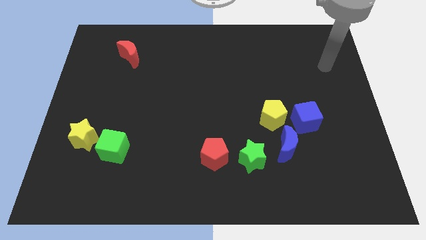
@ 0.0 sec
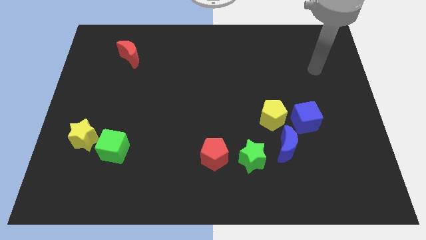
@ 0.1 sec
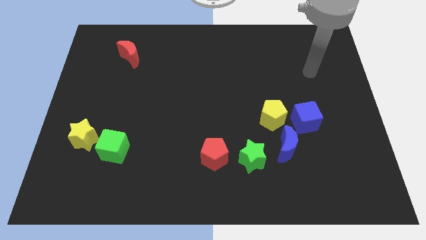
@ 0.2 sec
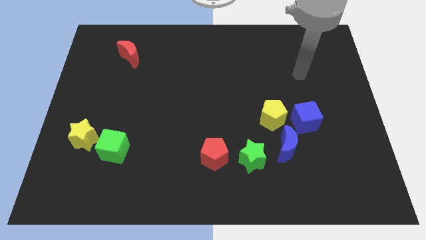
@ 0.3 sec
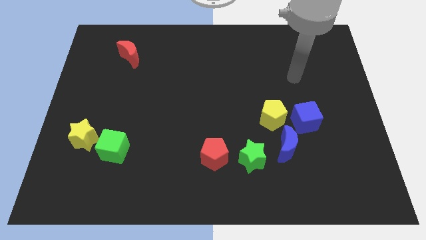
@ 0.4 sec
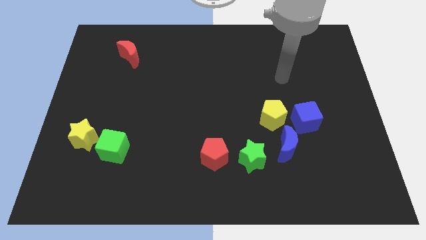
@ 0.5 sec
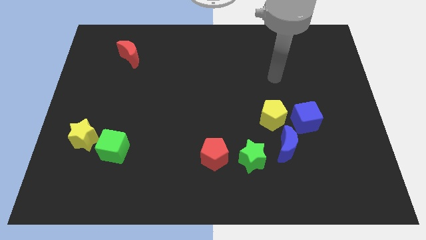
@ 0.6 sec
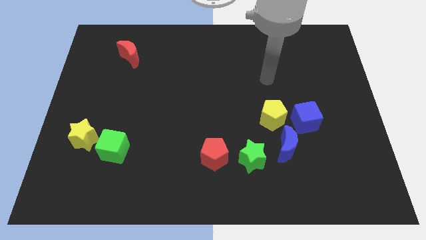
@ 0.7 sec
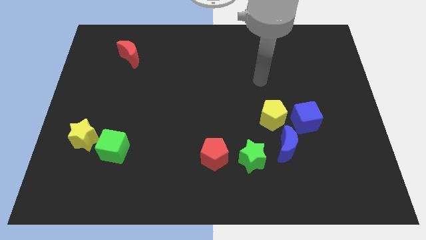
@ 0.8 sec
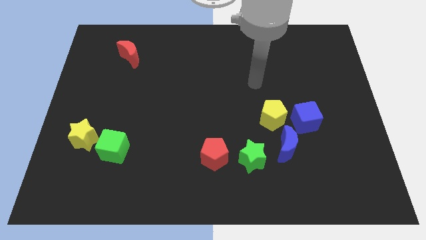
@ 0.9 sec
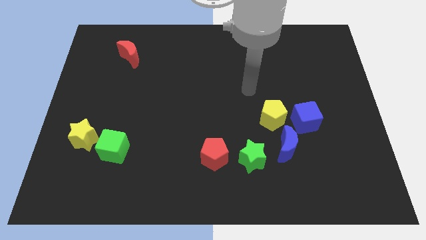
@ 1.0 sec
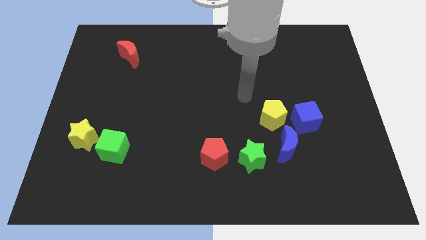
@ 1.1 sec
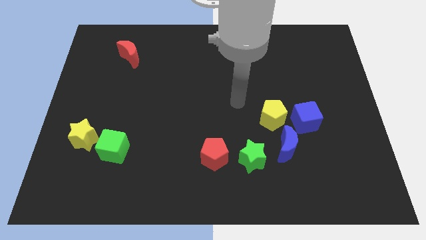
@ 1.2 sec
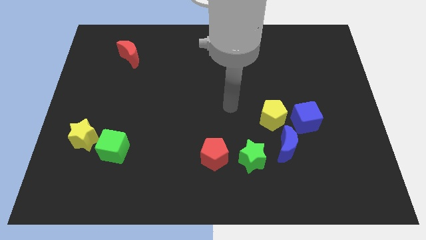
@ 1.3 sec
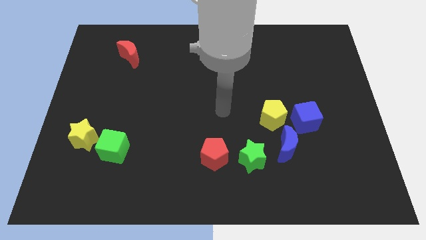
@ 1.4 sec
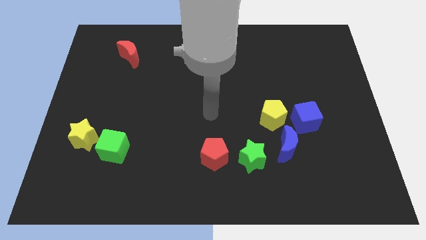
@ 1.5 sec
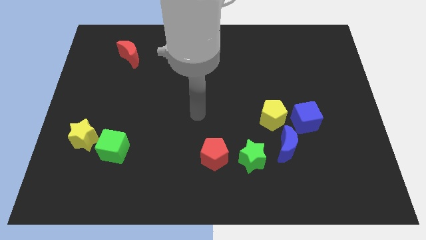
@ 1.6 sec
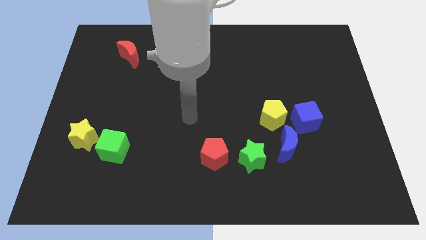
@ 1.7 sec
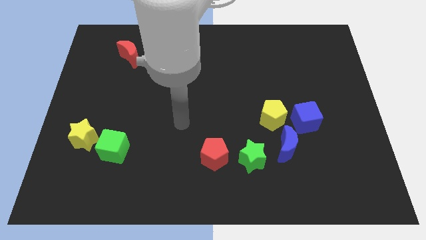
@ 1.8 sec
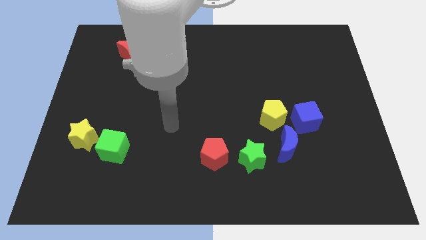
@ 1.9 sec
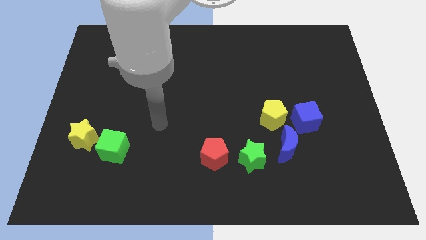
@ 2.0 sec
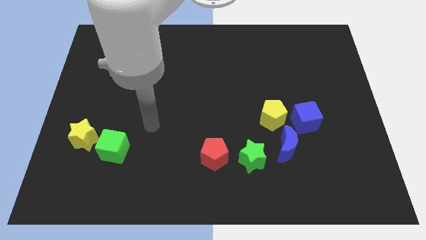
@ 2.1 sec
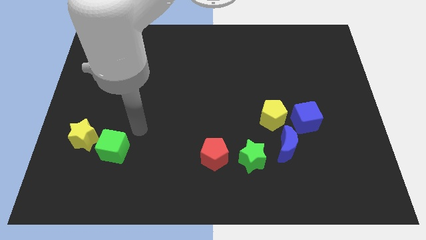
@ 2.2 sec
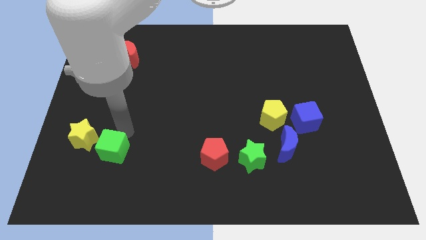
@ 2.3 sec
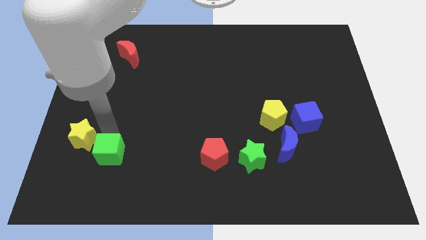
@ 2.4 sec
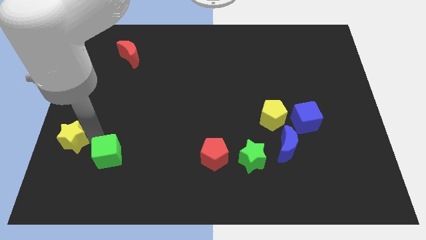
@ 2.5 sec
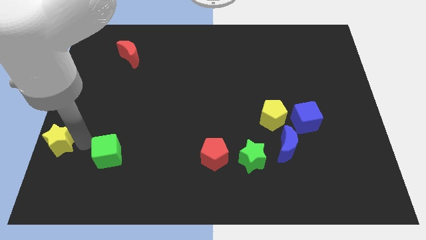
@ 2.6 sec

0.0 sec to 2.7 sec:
move the green cube away from the yellow star

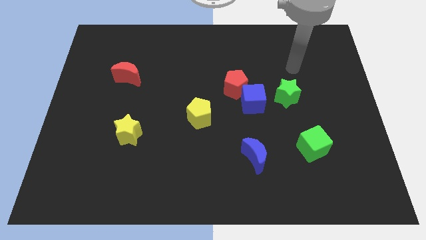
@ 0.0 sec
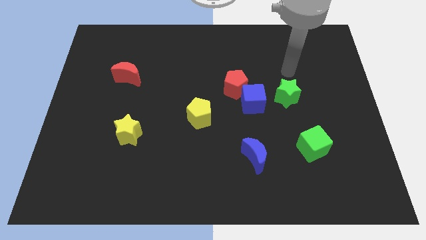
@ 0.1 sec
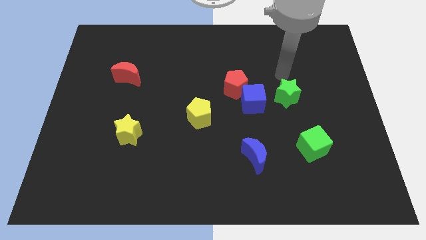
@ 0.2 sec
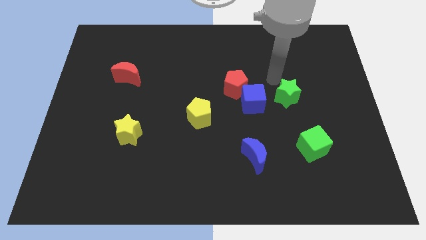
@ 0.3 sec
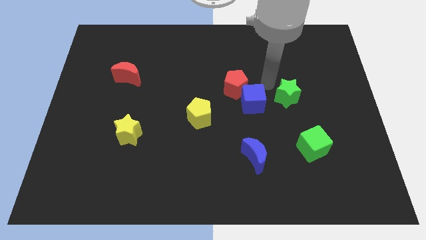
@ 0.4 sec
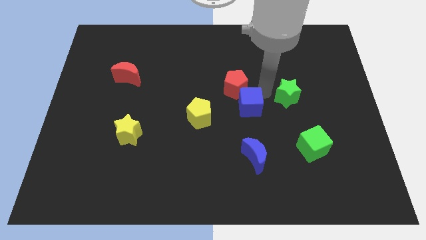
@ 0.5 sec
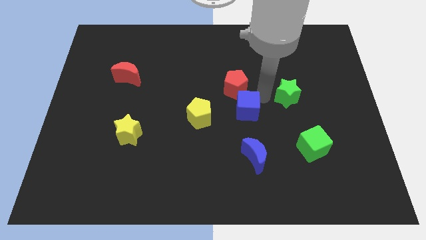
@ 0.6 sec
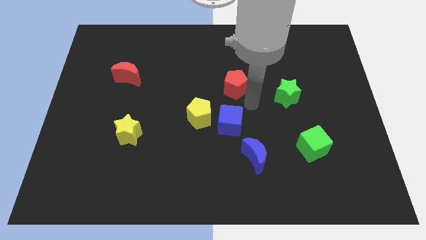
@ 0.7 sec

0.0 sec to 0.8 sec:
pull the red pentagon apart from the blue cube

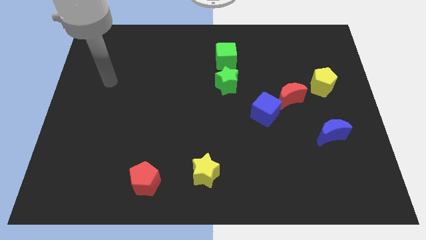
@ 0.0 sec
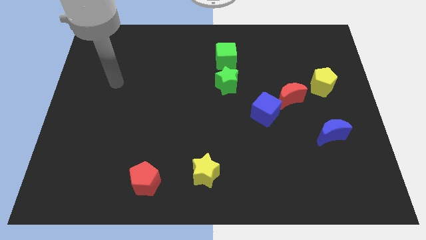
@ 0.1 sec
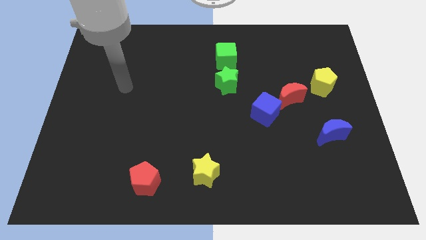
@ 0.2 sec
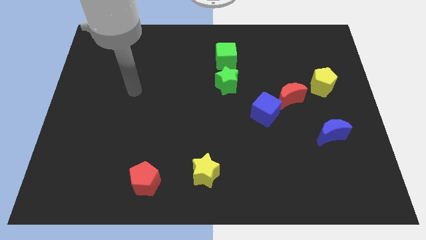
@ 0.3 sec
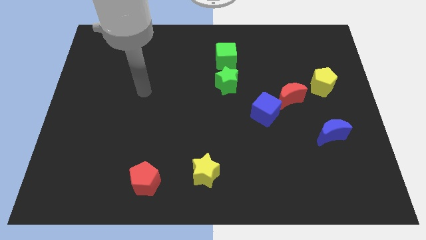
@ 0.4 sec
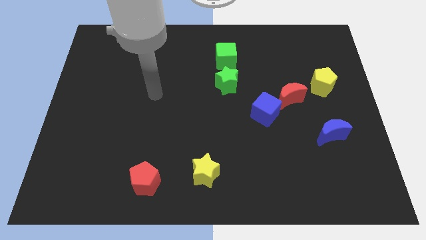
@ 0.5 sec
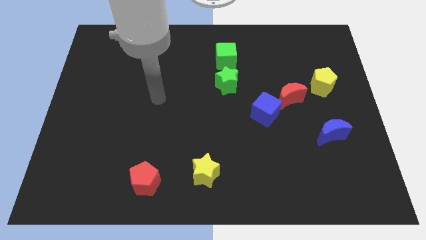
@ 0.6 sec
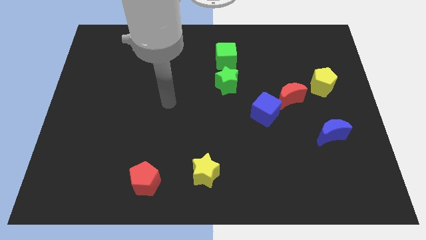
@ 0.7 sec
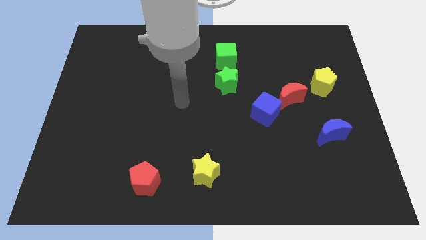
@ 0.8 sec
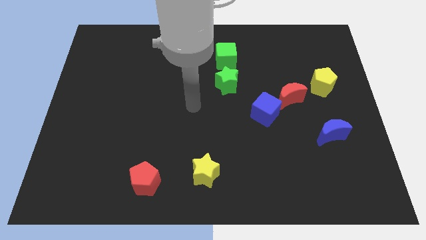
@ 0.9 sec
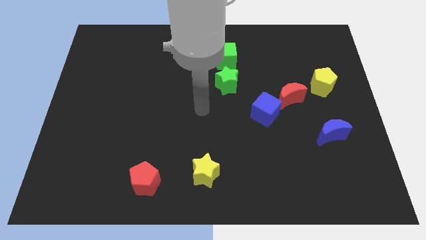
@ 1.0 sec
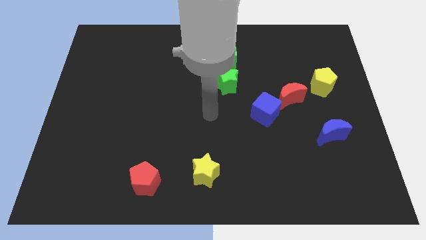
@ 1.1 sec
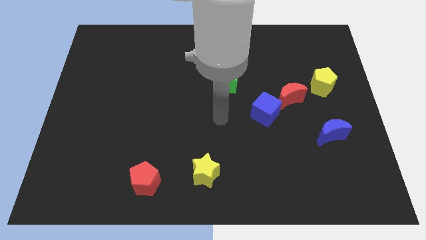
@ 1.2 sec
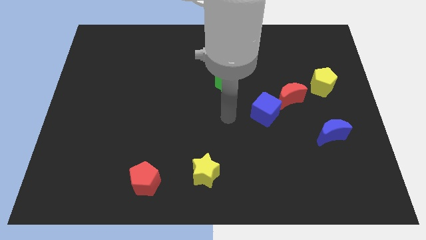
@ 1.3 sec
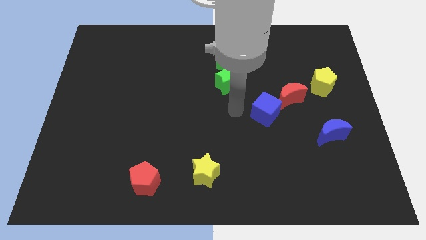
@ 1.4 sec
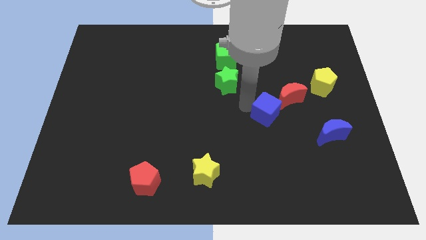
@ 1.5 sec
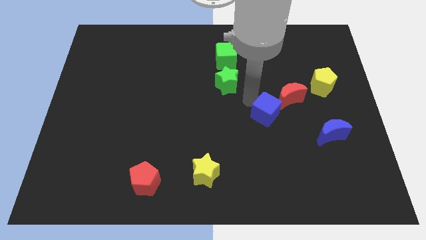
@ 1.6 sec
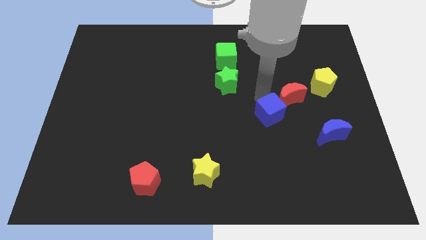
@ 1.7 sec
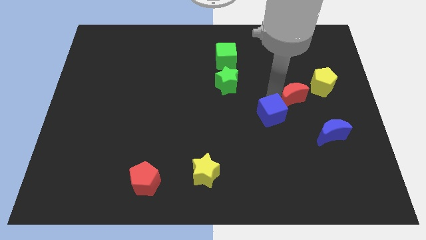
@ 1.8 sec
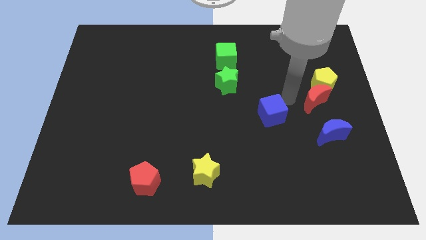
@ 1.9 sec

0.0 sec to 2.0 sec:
separate the blue cube from the red moon

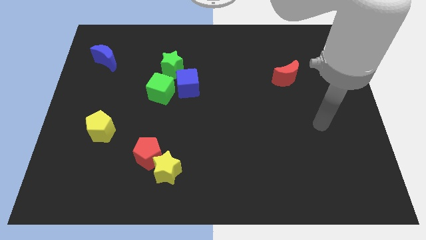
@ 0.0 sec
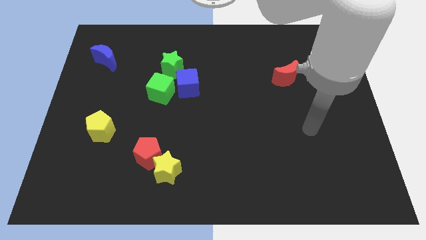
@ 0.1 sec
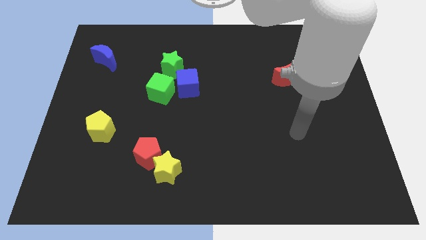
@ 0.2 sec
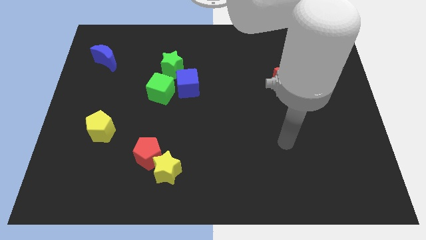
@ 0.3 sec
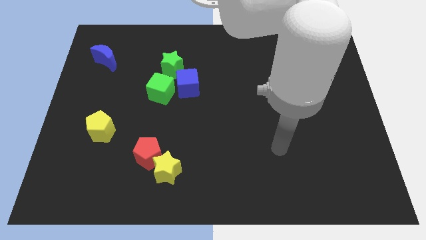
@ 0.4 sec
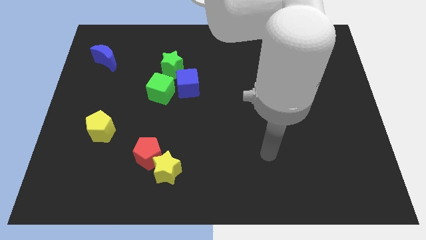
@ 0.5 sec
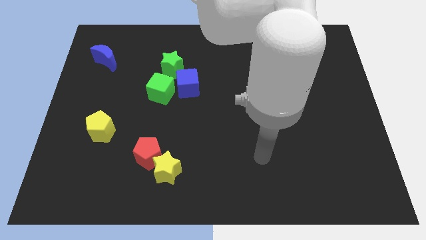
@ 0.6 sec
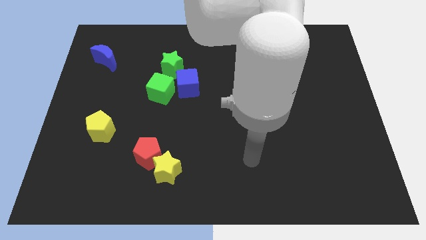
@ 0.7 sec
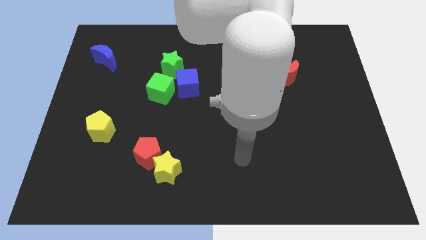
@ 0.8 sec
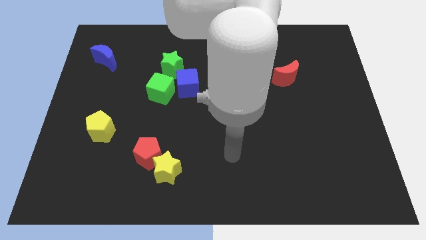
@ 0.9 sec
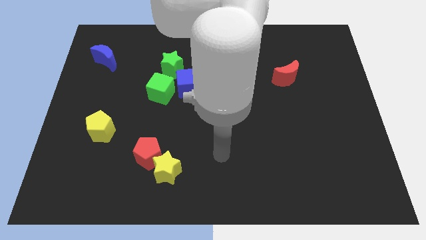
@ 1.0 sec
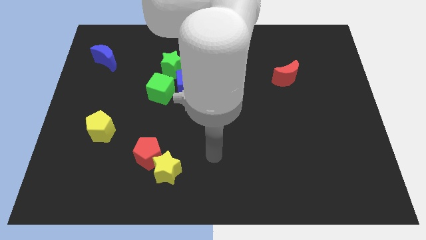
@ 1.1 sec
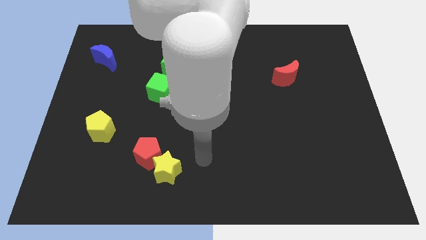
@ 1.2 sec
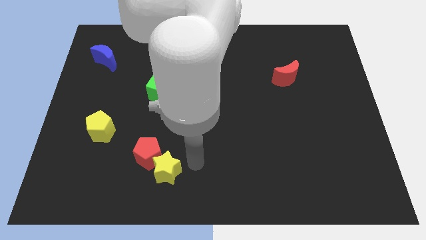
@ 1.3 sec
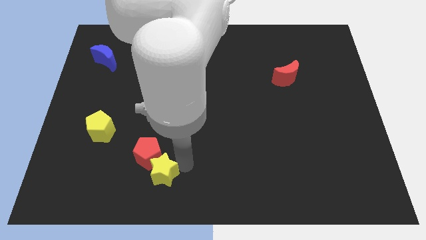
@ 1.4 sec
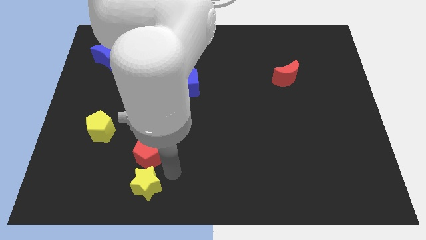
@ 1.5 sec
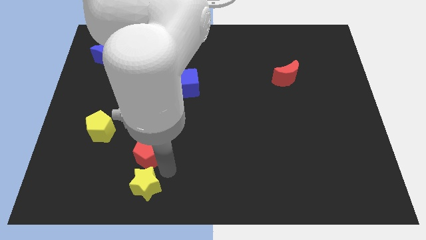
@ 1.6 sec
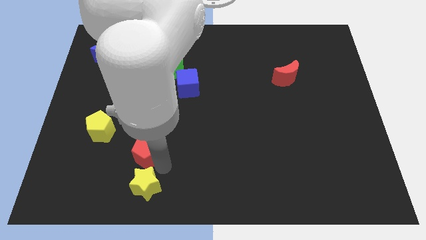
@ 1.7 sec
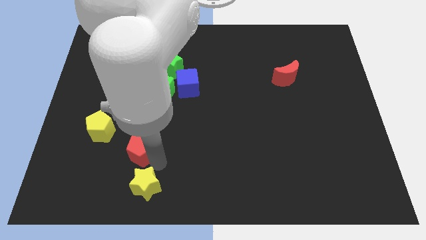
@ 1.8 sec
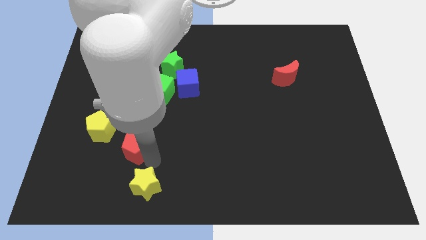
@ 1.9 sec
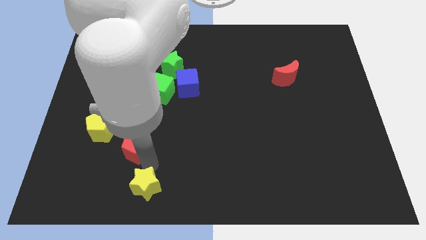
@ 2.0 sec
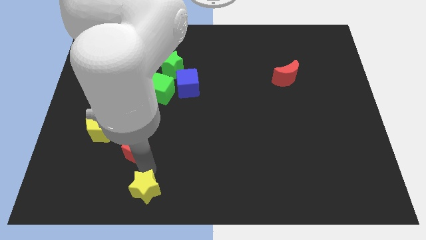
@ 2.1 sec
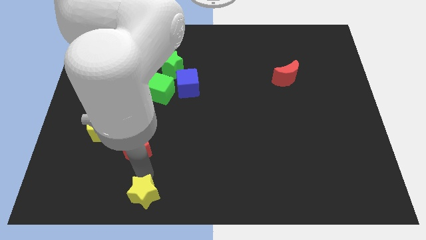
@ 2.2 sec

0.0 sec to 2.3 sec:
move the red pentagon away from the yellow star

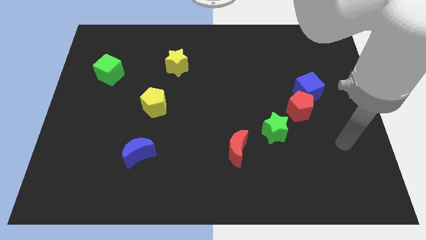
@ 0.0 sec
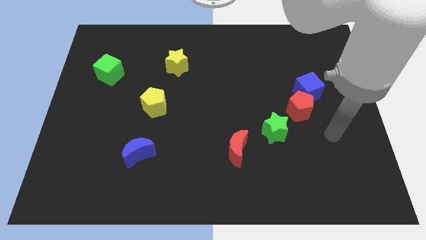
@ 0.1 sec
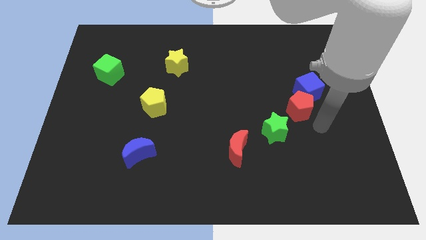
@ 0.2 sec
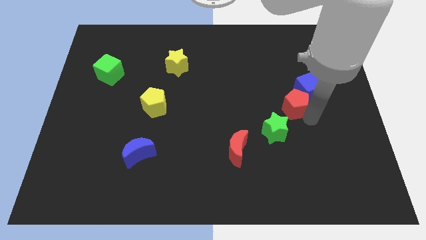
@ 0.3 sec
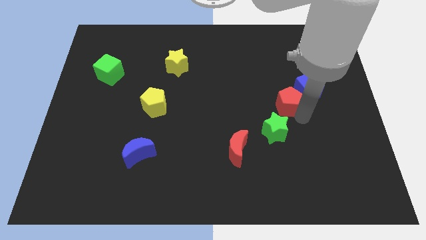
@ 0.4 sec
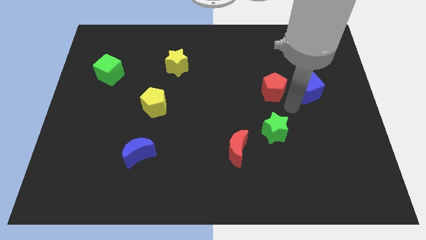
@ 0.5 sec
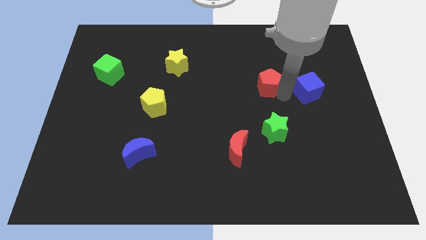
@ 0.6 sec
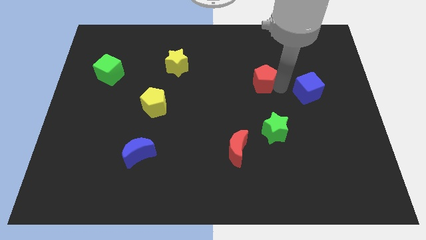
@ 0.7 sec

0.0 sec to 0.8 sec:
move the blue cube away from the red pentagon

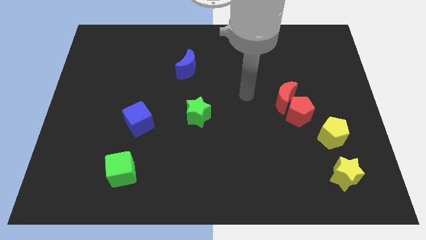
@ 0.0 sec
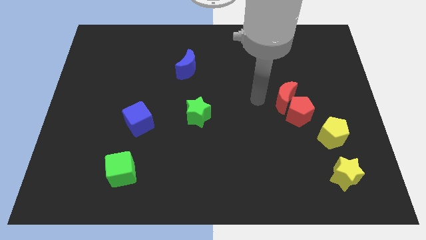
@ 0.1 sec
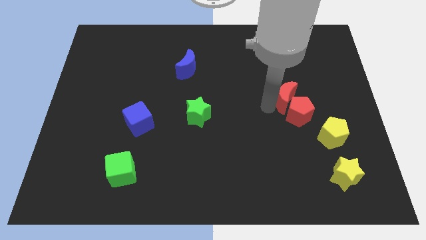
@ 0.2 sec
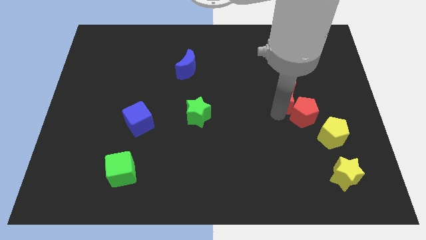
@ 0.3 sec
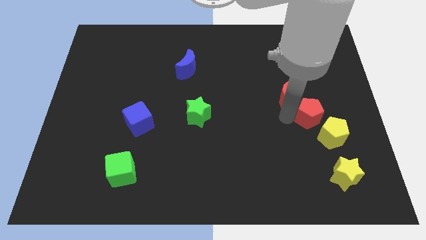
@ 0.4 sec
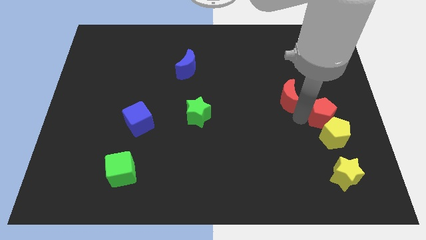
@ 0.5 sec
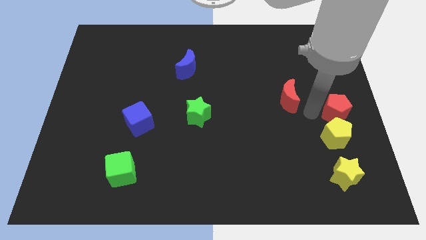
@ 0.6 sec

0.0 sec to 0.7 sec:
move the red moon away from the red pentagon
